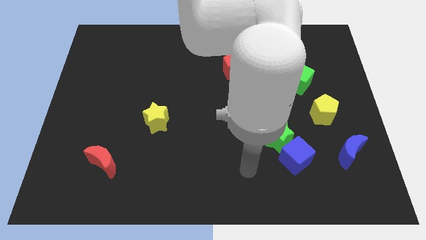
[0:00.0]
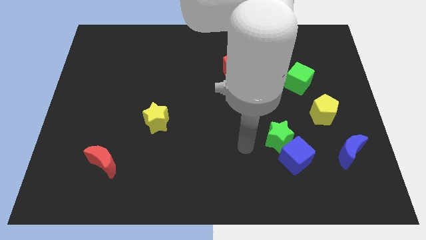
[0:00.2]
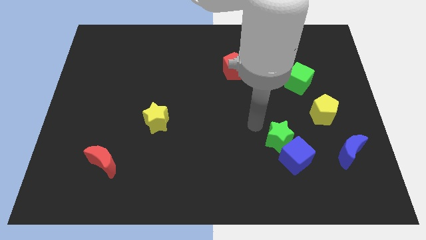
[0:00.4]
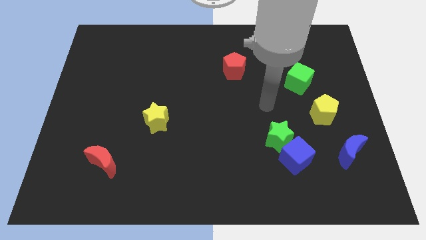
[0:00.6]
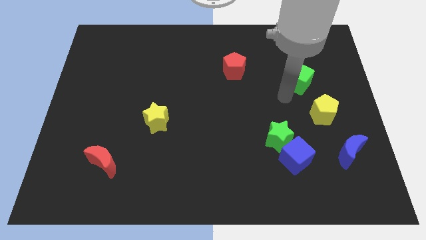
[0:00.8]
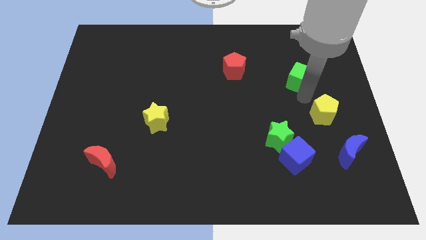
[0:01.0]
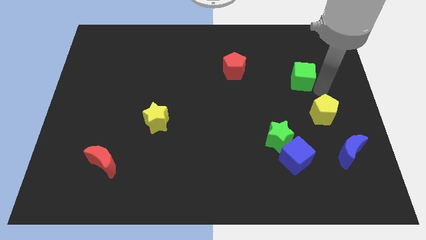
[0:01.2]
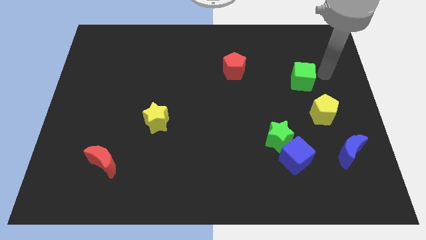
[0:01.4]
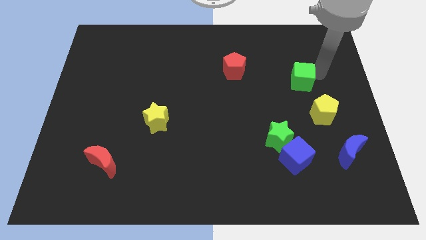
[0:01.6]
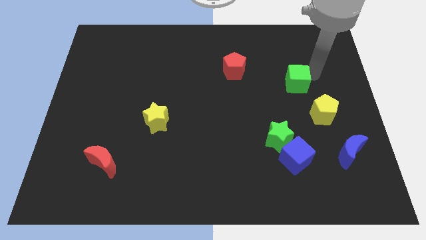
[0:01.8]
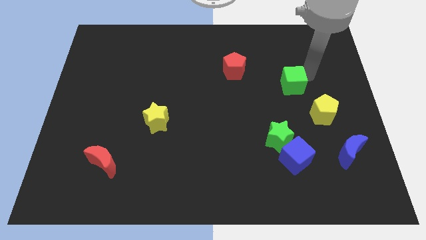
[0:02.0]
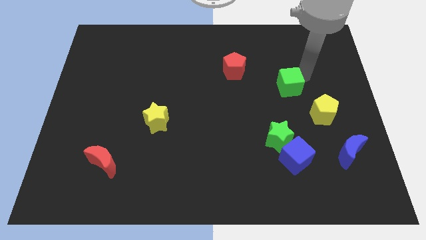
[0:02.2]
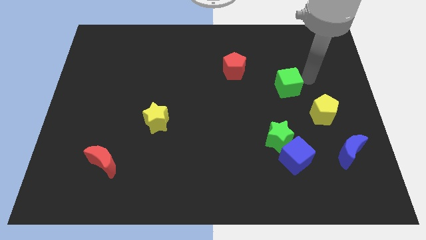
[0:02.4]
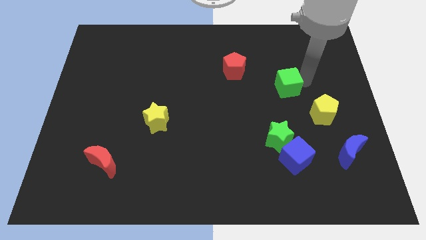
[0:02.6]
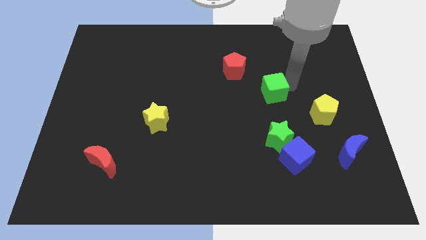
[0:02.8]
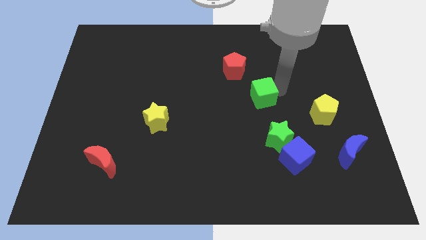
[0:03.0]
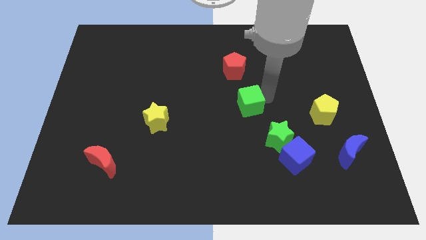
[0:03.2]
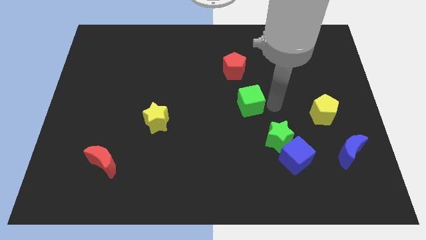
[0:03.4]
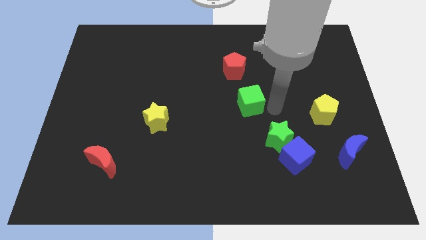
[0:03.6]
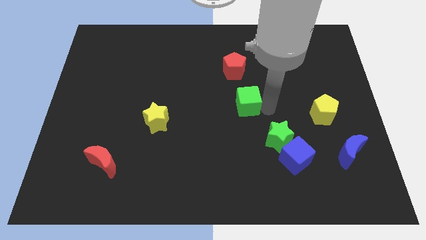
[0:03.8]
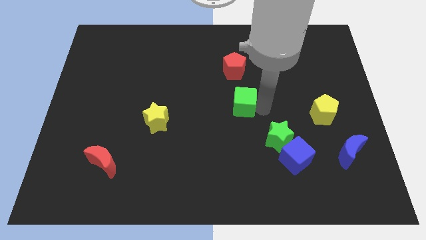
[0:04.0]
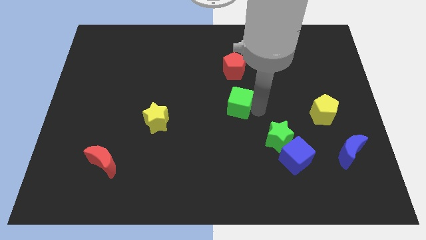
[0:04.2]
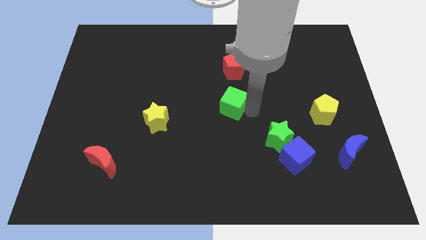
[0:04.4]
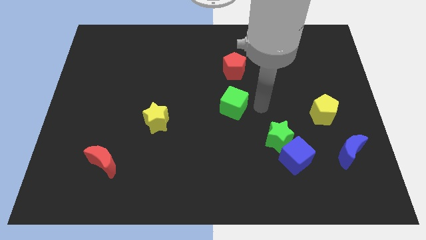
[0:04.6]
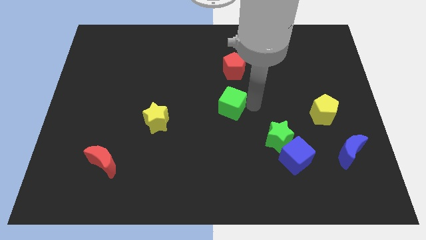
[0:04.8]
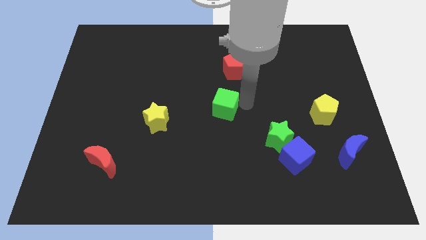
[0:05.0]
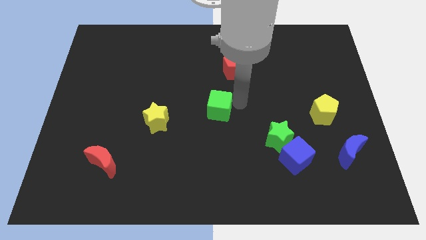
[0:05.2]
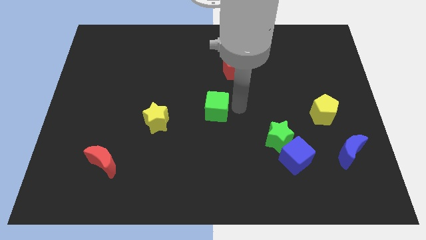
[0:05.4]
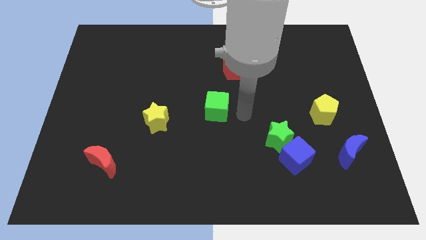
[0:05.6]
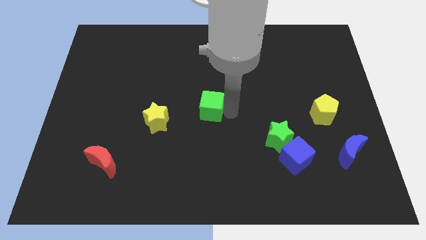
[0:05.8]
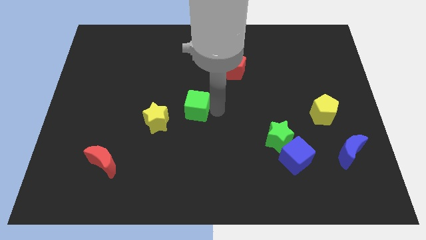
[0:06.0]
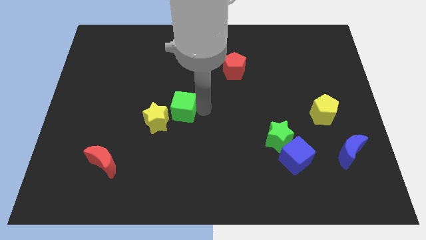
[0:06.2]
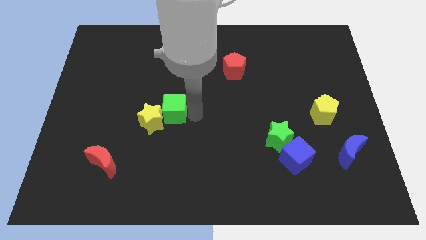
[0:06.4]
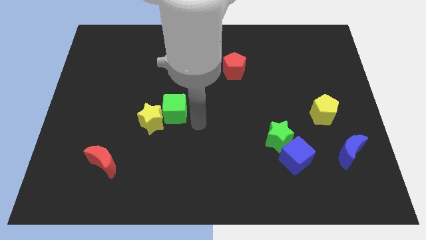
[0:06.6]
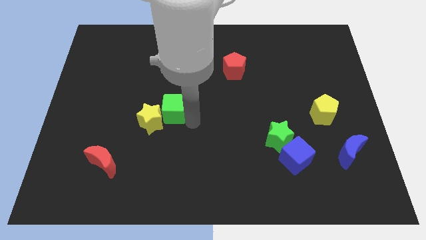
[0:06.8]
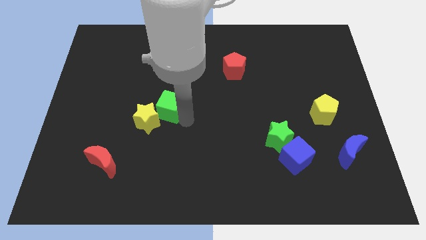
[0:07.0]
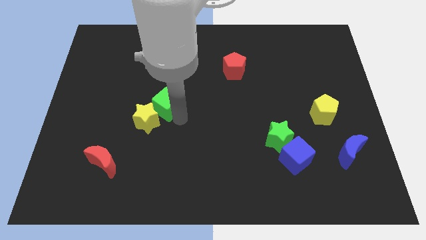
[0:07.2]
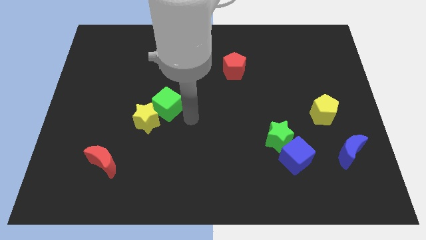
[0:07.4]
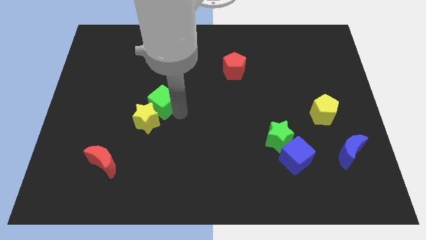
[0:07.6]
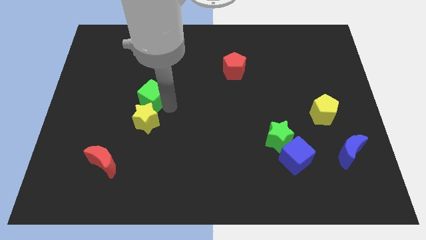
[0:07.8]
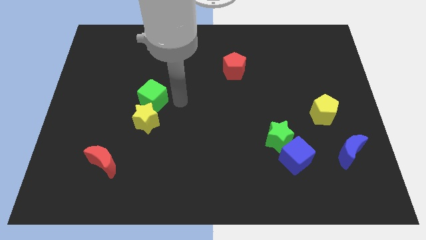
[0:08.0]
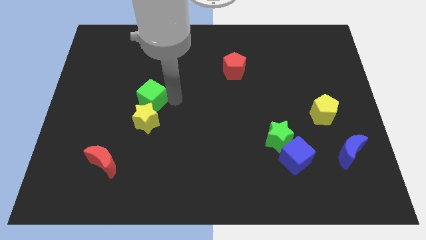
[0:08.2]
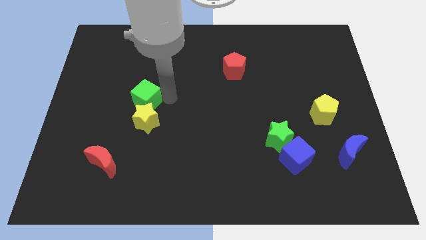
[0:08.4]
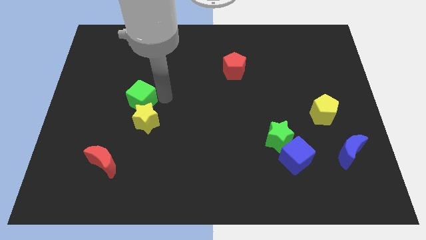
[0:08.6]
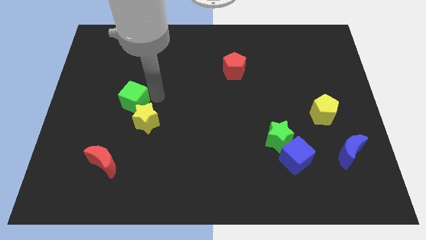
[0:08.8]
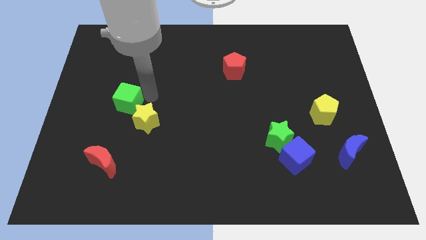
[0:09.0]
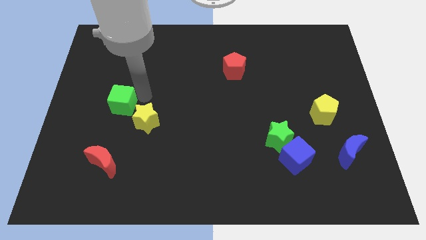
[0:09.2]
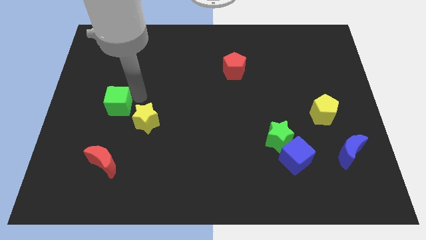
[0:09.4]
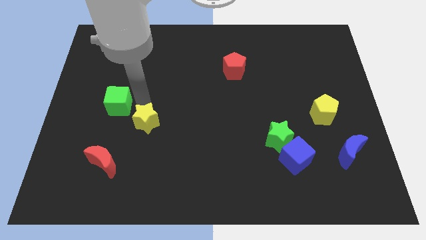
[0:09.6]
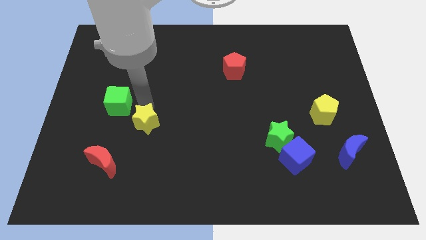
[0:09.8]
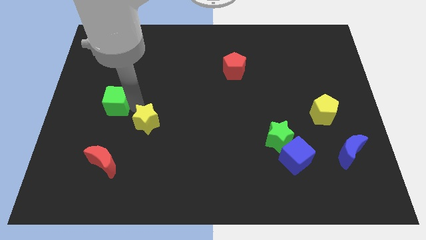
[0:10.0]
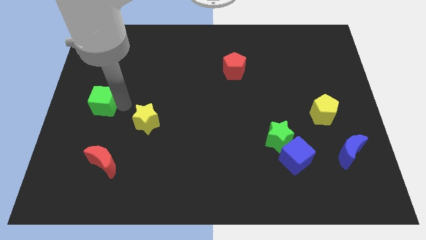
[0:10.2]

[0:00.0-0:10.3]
put the green cube to the left side of the board

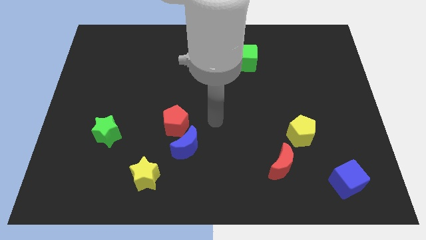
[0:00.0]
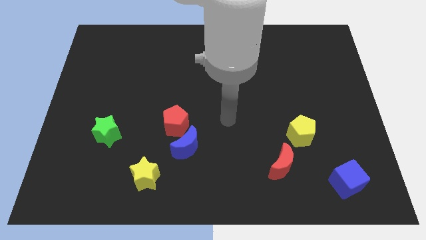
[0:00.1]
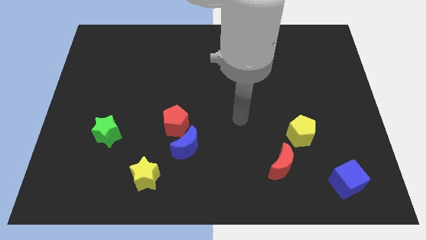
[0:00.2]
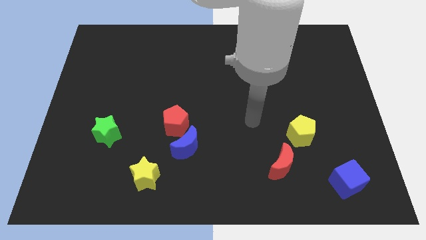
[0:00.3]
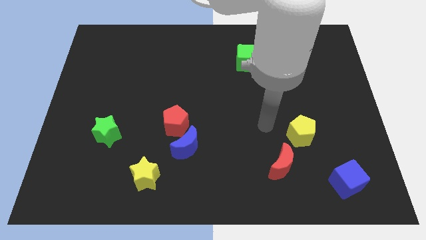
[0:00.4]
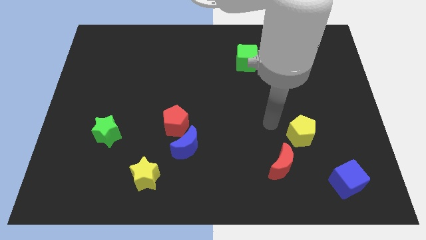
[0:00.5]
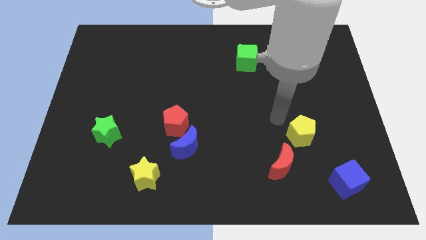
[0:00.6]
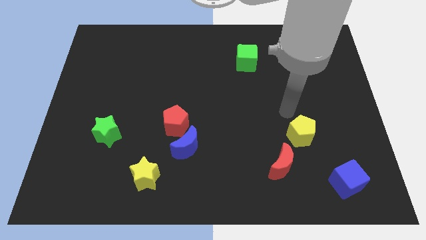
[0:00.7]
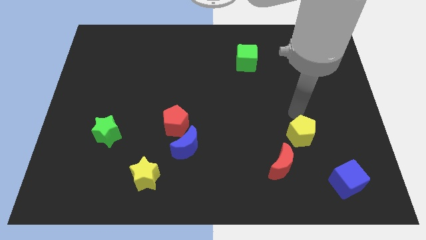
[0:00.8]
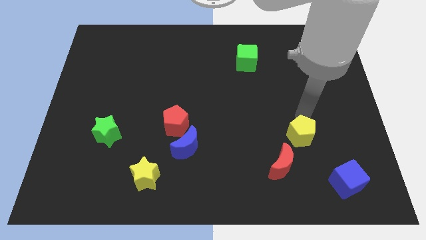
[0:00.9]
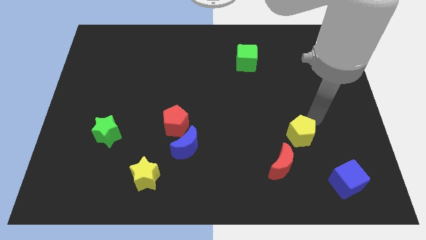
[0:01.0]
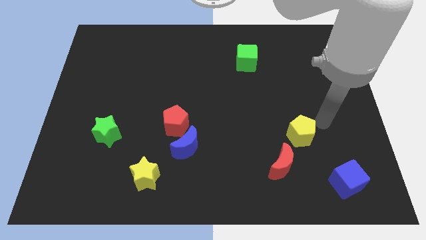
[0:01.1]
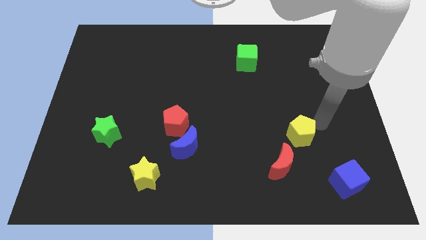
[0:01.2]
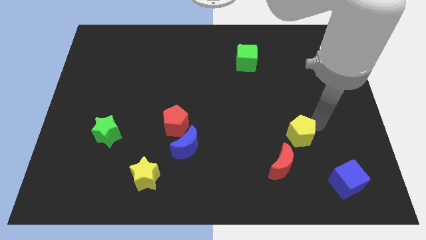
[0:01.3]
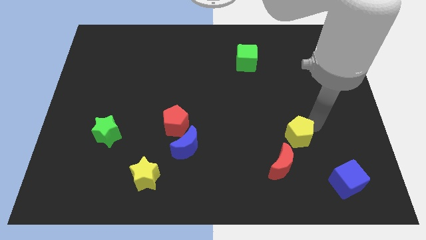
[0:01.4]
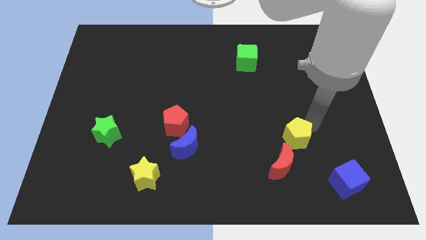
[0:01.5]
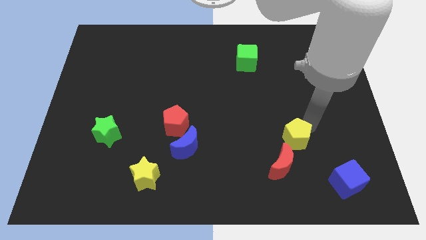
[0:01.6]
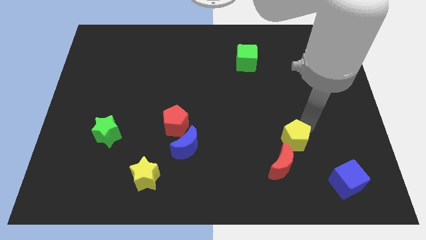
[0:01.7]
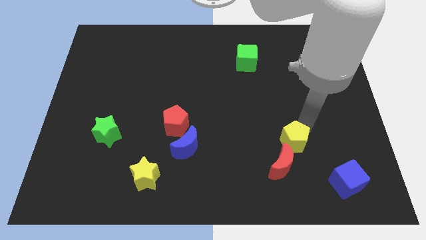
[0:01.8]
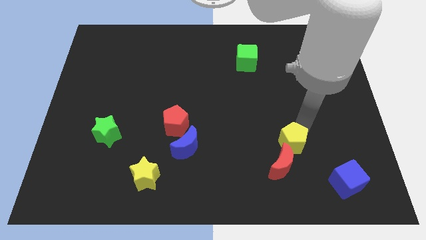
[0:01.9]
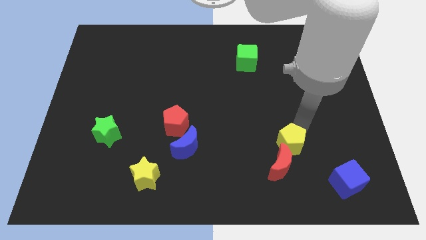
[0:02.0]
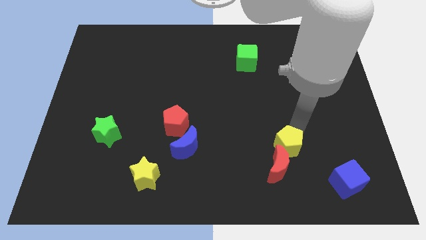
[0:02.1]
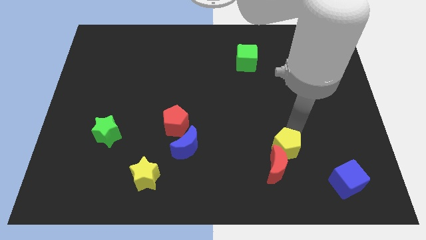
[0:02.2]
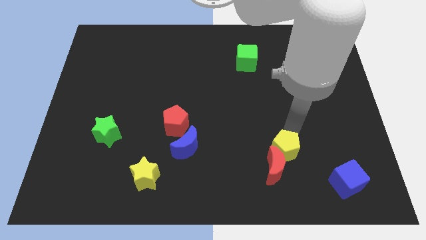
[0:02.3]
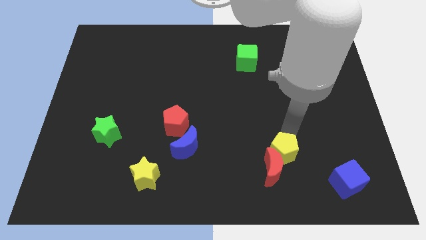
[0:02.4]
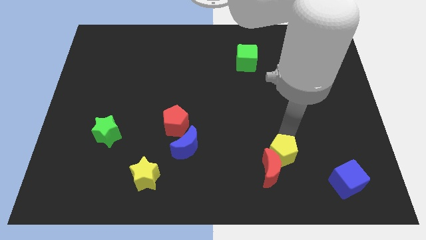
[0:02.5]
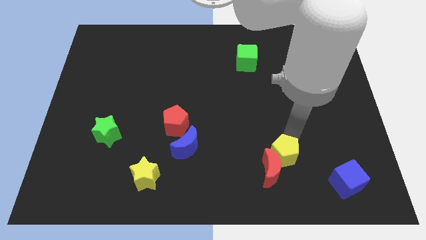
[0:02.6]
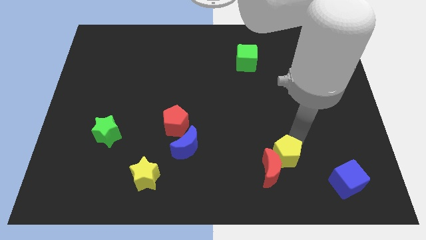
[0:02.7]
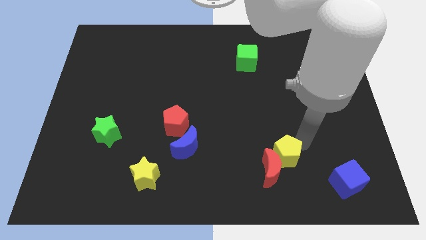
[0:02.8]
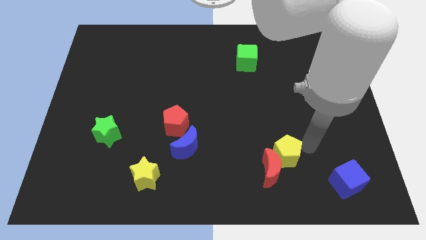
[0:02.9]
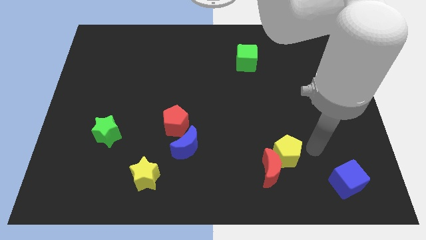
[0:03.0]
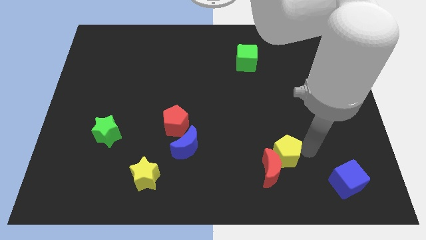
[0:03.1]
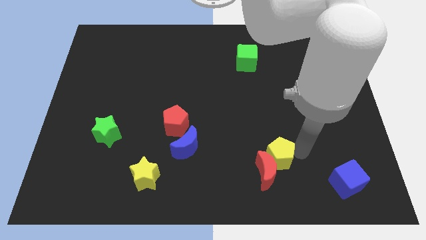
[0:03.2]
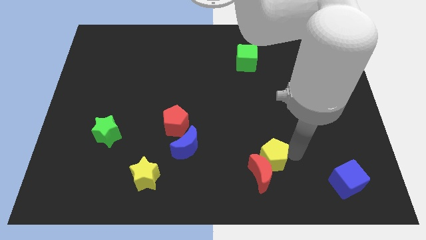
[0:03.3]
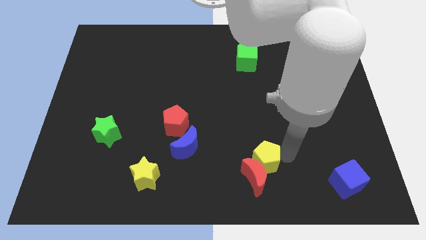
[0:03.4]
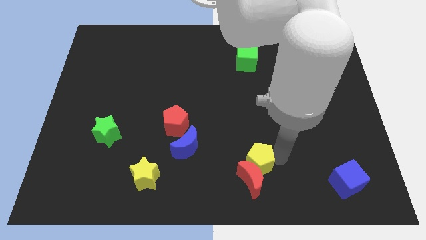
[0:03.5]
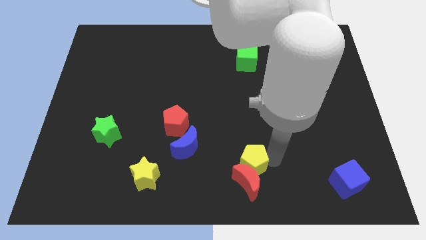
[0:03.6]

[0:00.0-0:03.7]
push the yellow pentagon to the bottom
